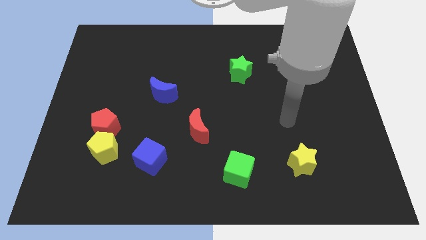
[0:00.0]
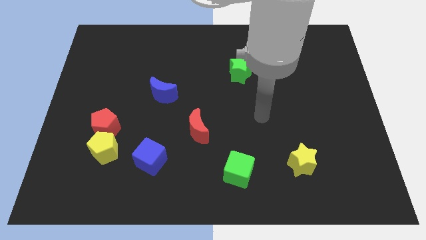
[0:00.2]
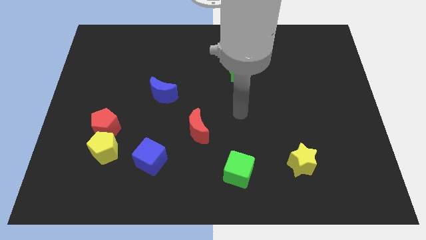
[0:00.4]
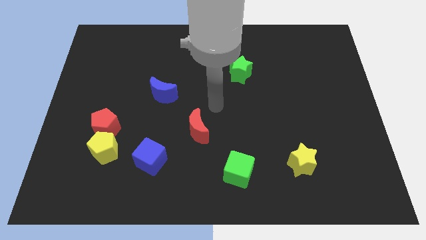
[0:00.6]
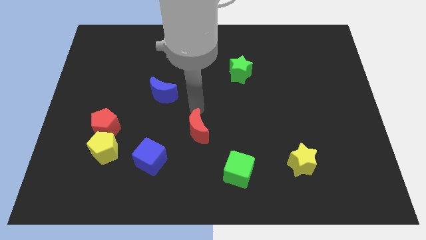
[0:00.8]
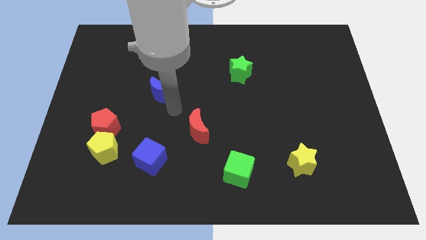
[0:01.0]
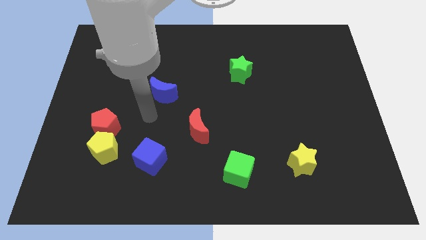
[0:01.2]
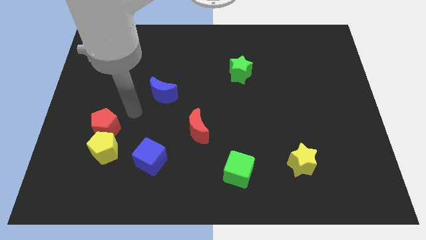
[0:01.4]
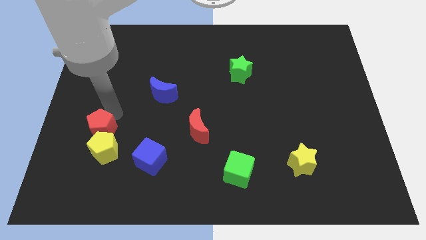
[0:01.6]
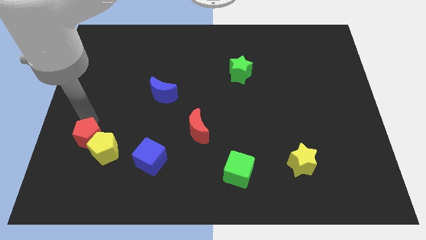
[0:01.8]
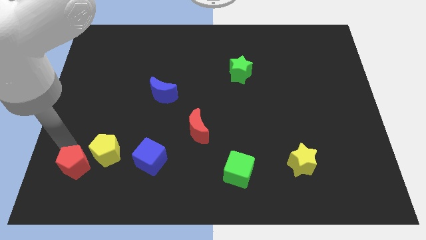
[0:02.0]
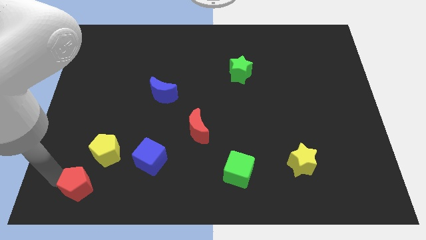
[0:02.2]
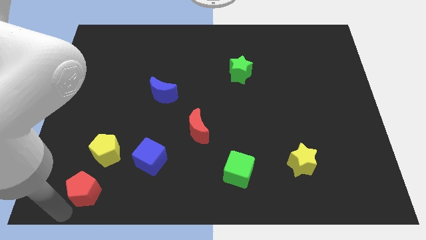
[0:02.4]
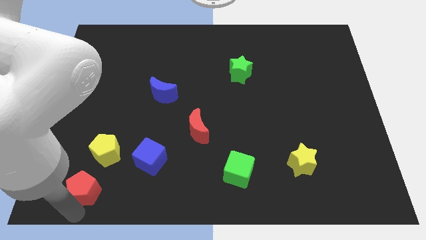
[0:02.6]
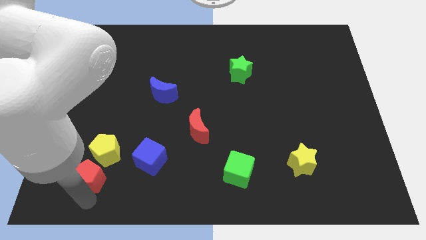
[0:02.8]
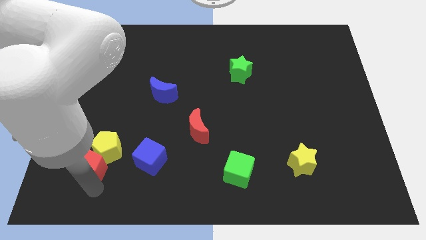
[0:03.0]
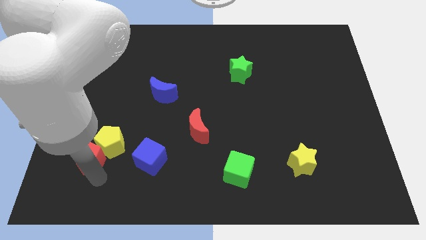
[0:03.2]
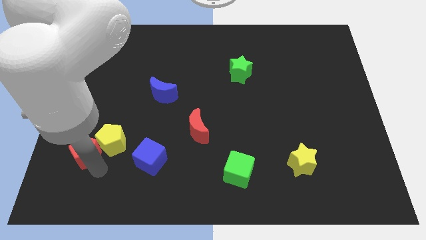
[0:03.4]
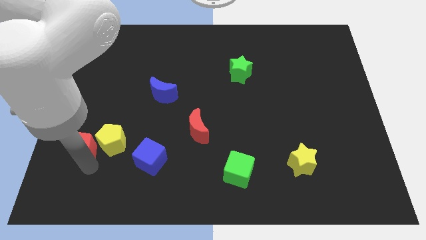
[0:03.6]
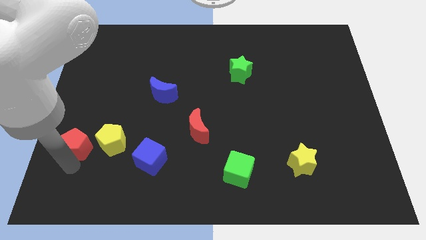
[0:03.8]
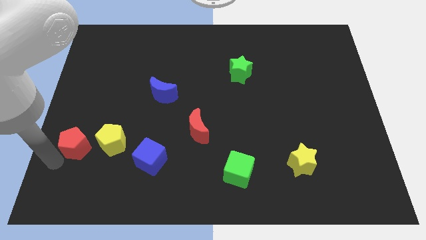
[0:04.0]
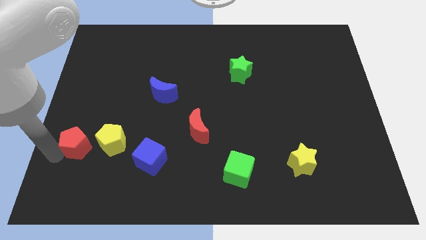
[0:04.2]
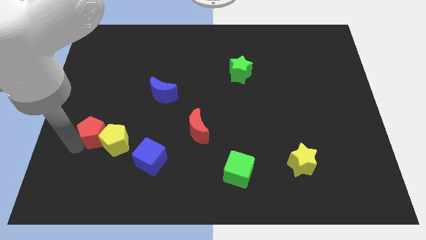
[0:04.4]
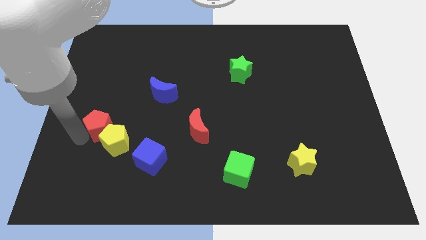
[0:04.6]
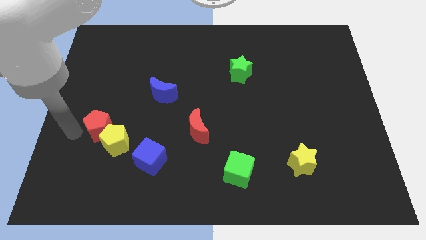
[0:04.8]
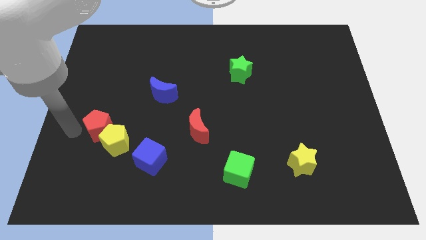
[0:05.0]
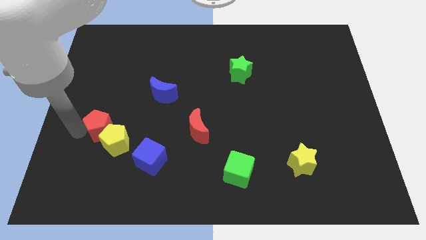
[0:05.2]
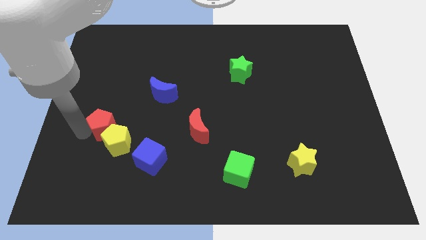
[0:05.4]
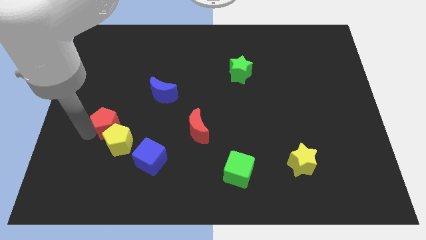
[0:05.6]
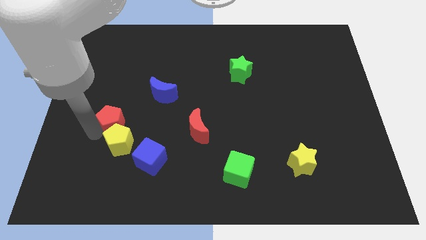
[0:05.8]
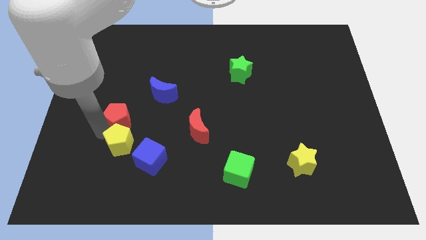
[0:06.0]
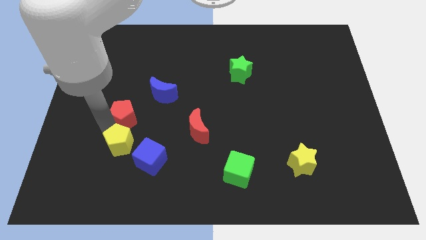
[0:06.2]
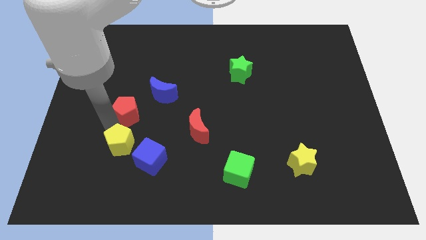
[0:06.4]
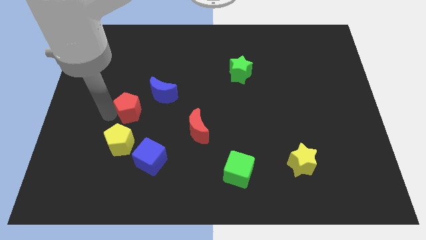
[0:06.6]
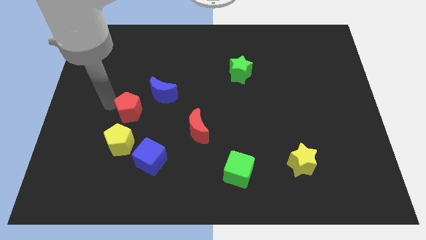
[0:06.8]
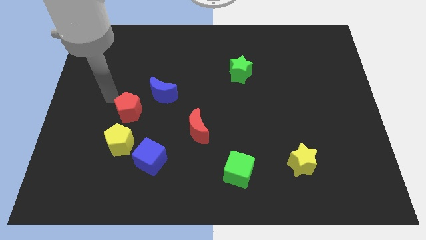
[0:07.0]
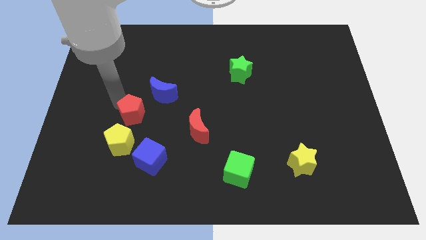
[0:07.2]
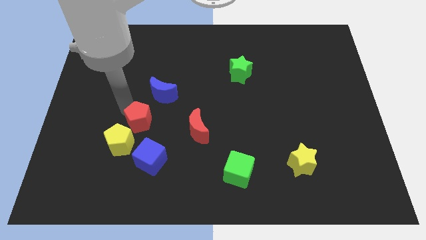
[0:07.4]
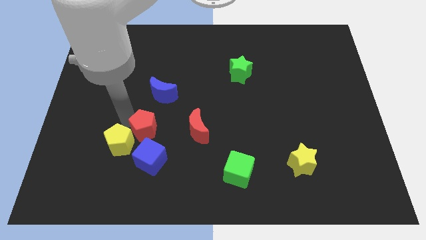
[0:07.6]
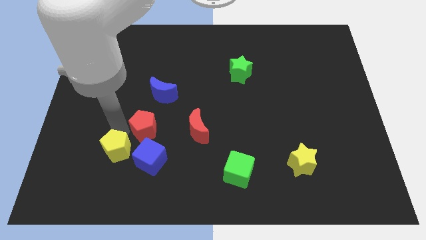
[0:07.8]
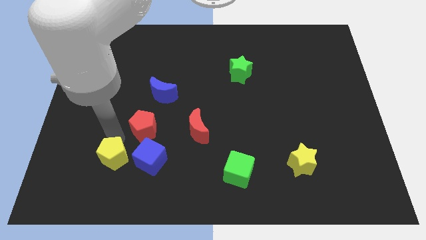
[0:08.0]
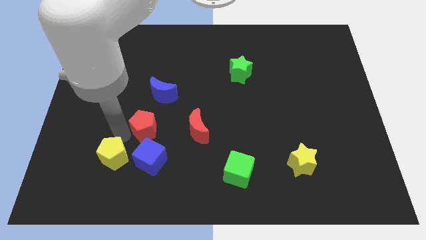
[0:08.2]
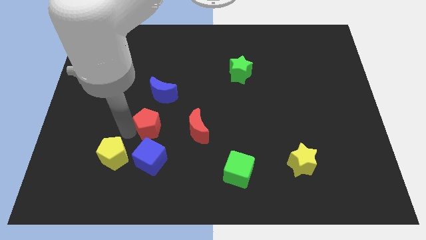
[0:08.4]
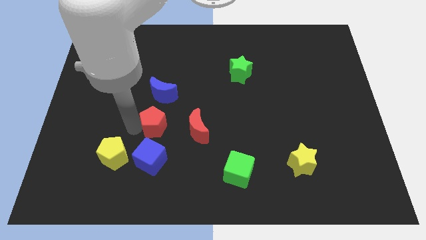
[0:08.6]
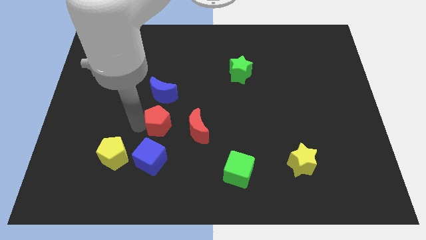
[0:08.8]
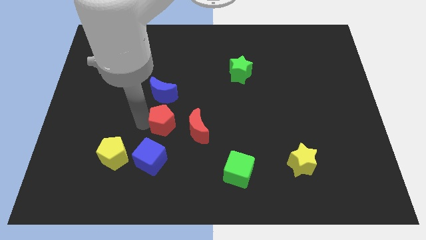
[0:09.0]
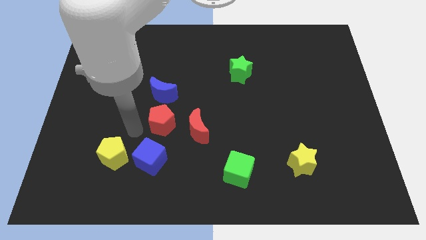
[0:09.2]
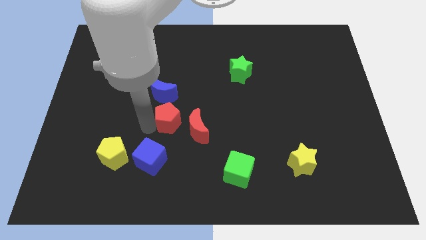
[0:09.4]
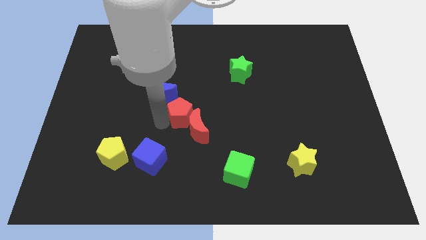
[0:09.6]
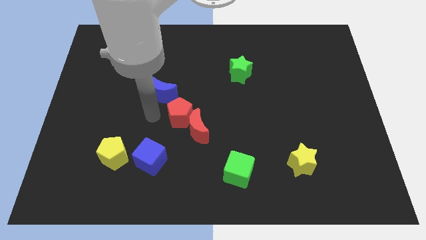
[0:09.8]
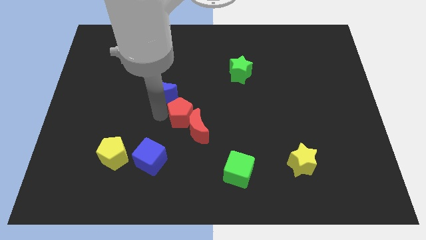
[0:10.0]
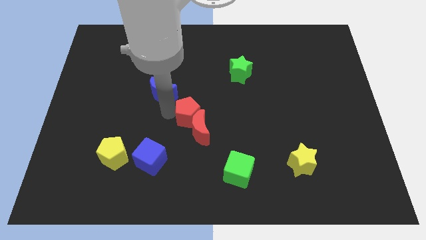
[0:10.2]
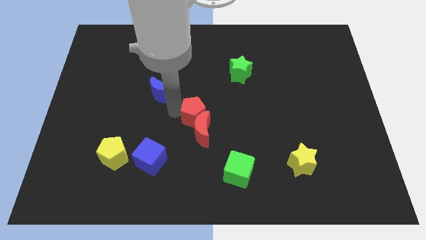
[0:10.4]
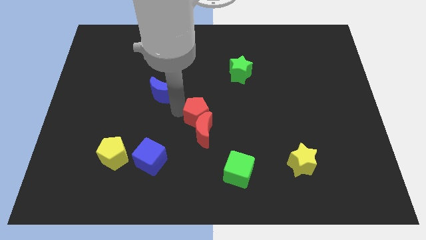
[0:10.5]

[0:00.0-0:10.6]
slide the red pentagon right

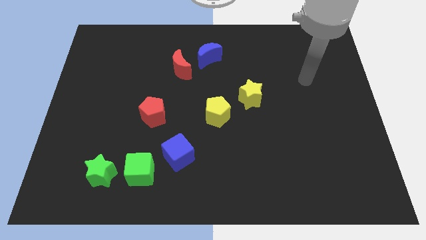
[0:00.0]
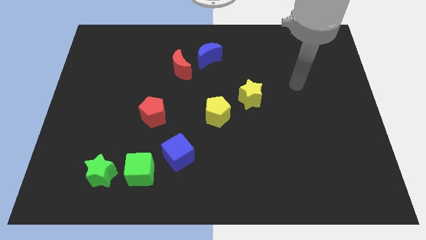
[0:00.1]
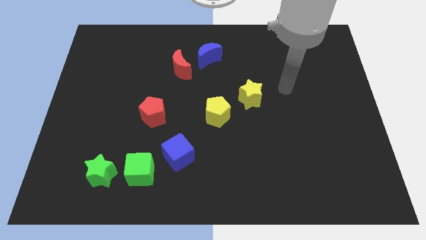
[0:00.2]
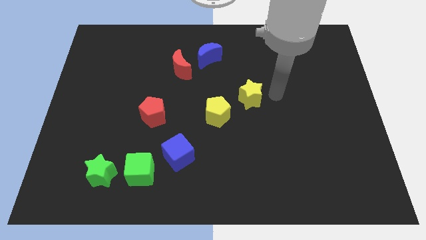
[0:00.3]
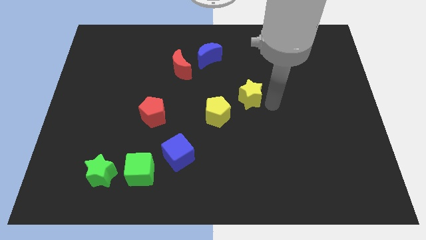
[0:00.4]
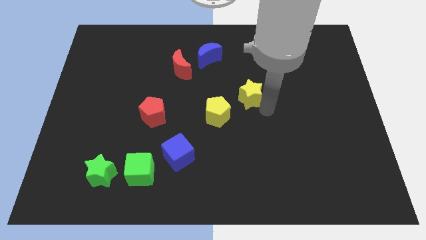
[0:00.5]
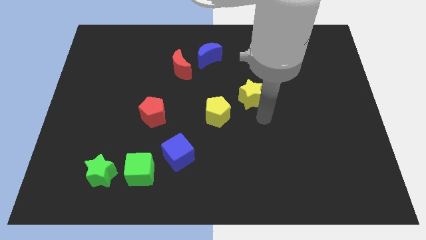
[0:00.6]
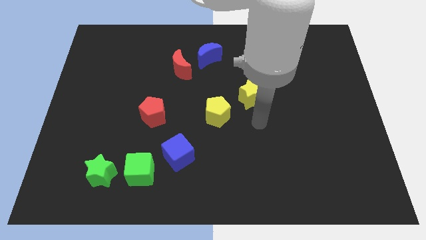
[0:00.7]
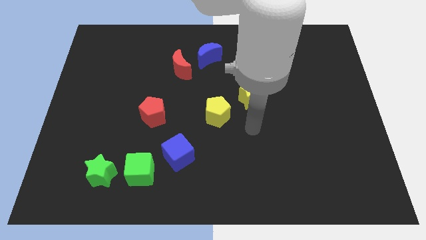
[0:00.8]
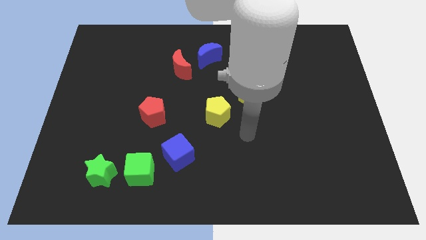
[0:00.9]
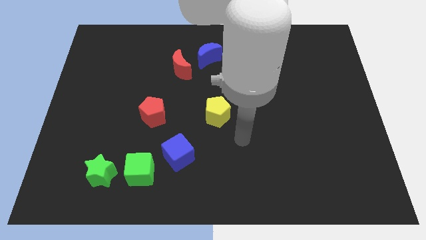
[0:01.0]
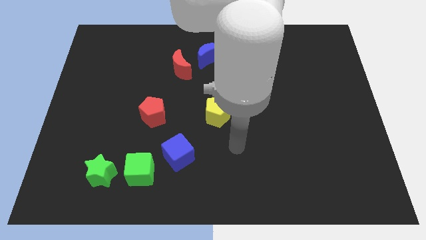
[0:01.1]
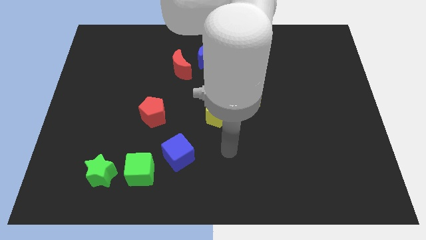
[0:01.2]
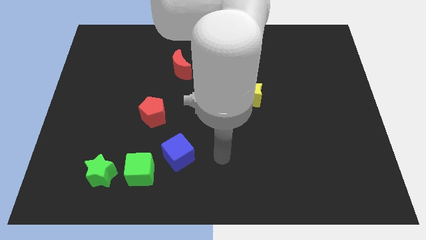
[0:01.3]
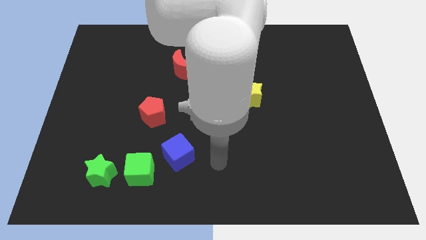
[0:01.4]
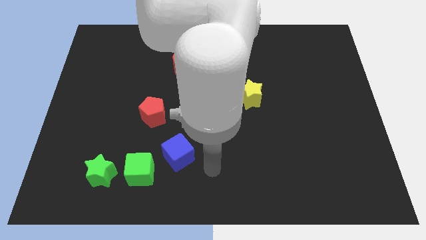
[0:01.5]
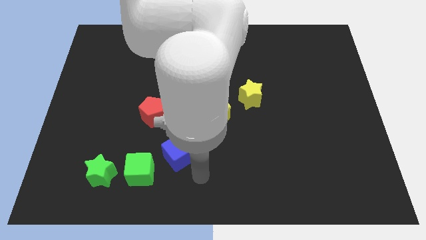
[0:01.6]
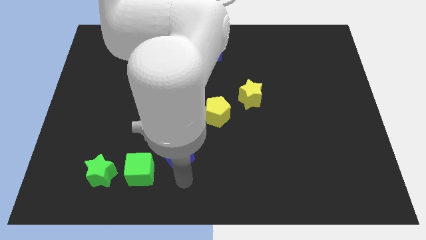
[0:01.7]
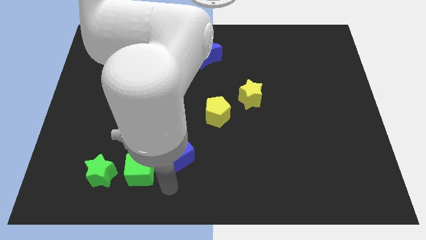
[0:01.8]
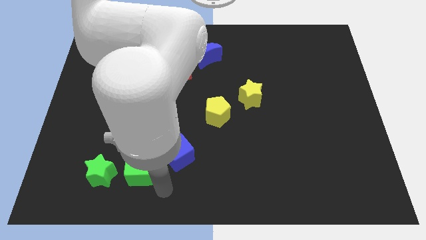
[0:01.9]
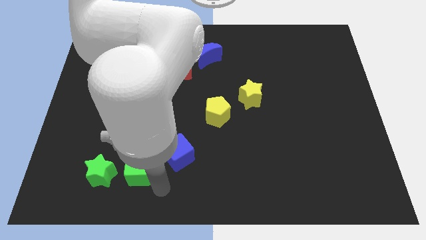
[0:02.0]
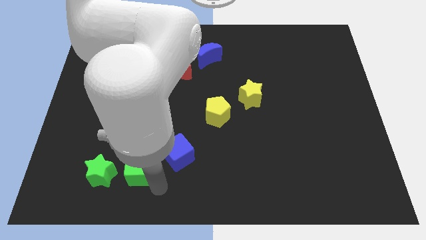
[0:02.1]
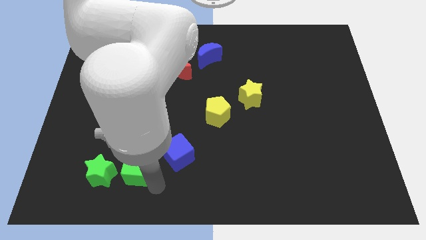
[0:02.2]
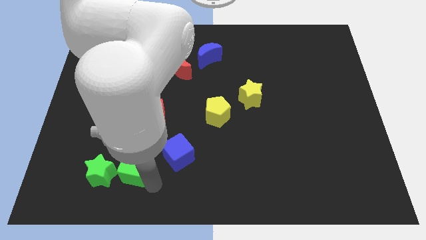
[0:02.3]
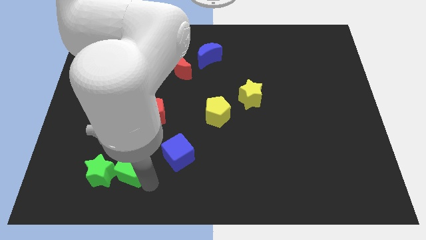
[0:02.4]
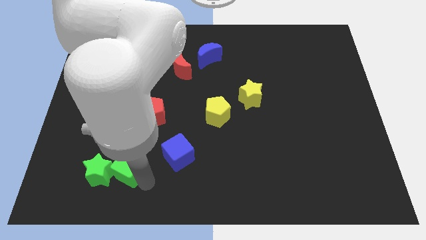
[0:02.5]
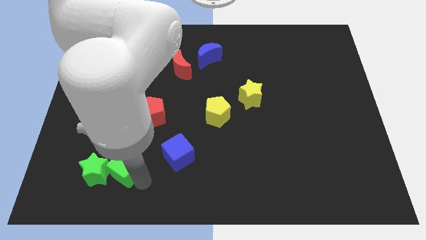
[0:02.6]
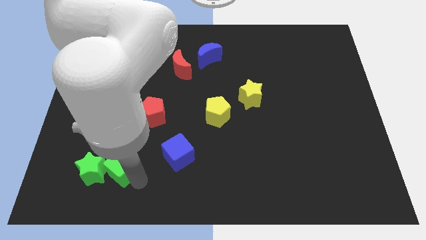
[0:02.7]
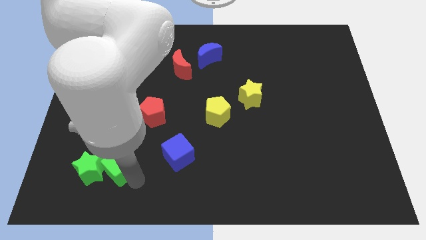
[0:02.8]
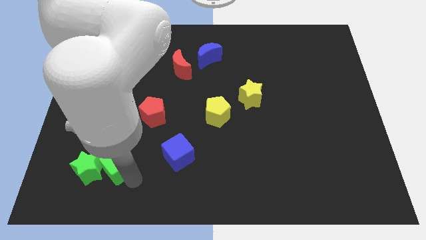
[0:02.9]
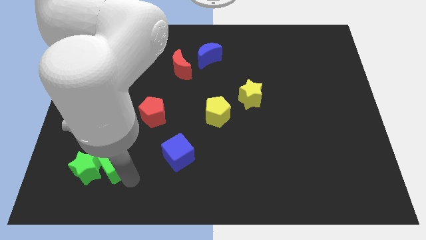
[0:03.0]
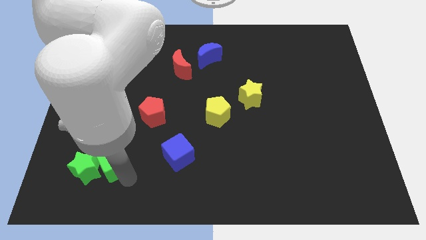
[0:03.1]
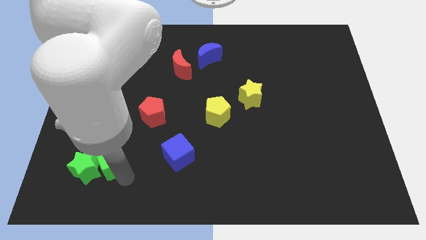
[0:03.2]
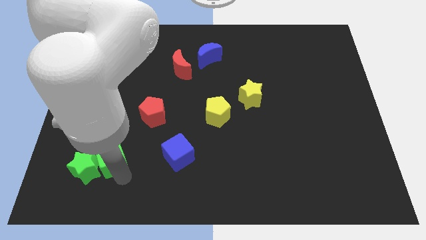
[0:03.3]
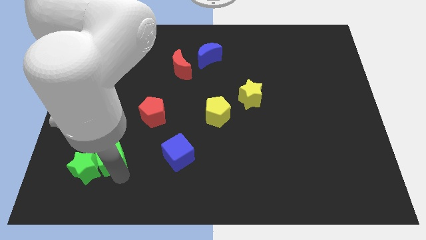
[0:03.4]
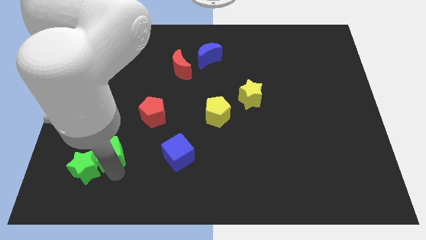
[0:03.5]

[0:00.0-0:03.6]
move the green cube a little upwards and left diagonally
